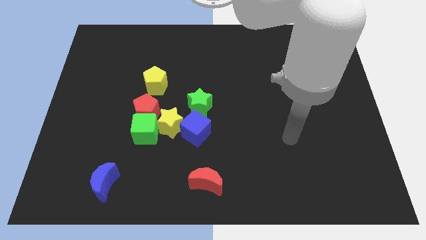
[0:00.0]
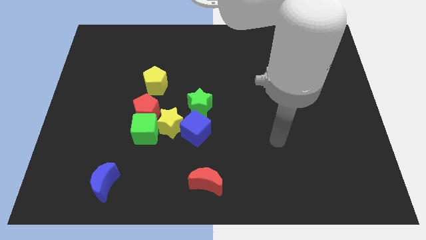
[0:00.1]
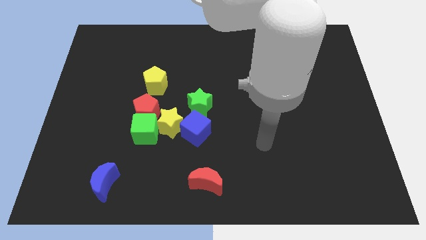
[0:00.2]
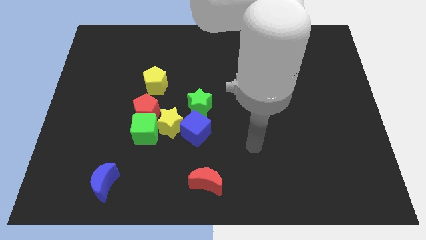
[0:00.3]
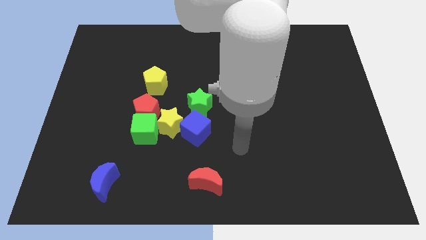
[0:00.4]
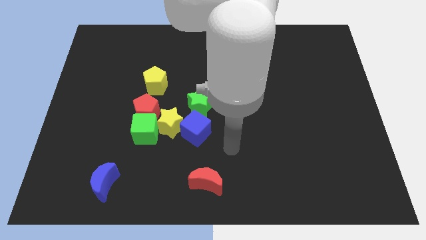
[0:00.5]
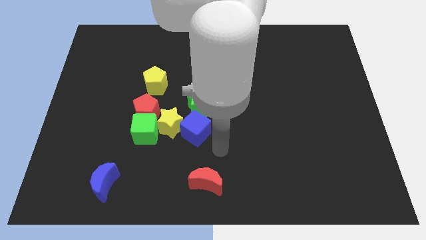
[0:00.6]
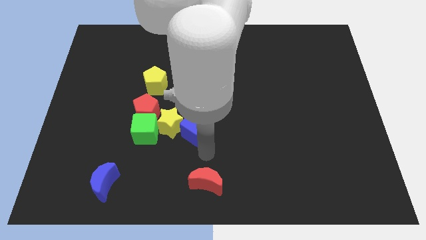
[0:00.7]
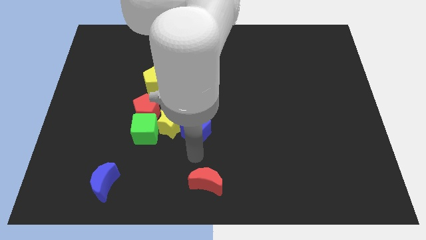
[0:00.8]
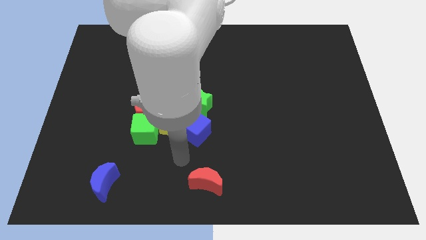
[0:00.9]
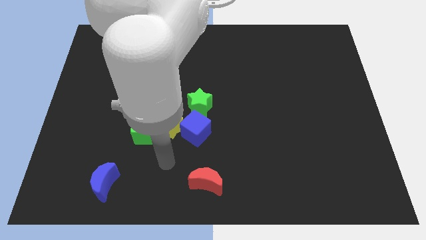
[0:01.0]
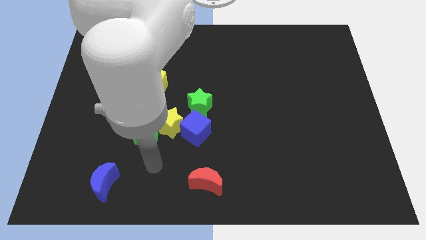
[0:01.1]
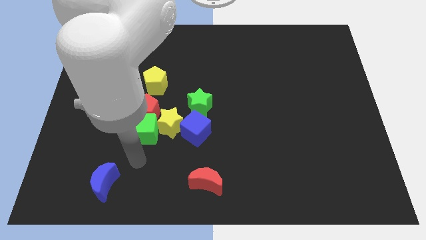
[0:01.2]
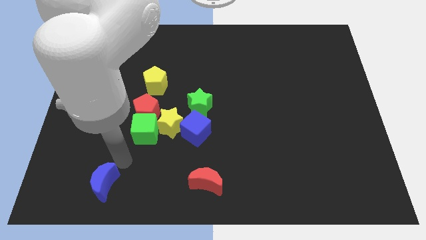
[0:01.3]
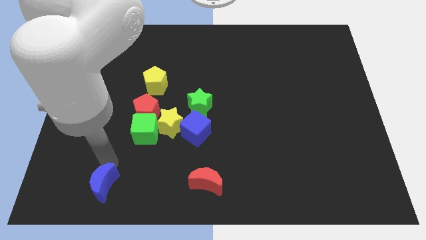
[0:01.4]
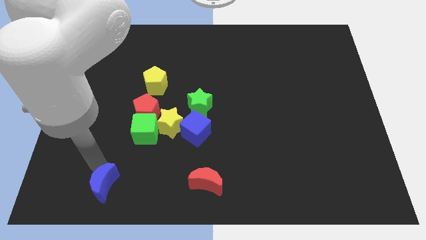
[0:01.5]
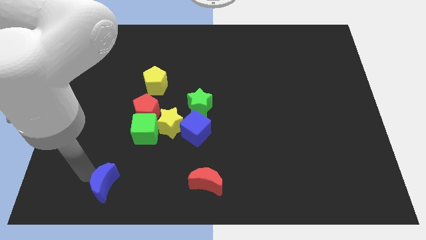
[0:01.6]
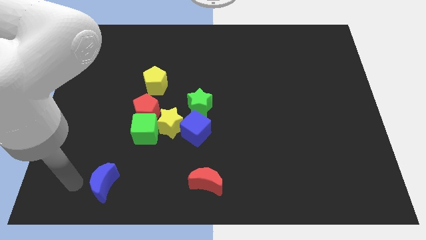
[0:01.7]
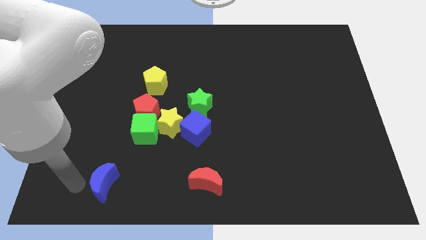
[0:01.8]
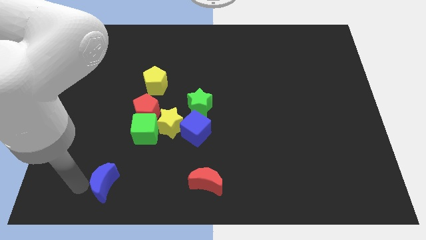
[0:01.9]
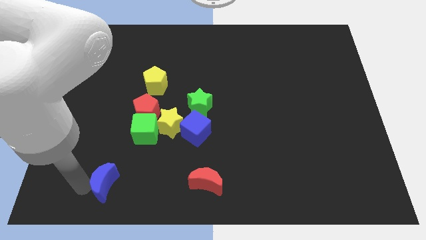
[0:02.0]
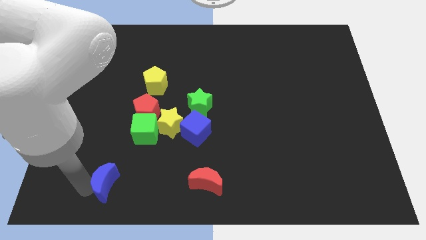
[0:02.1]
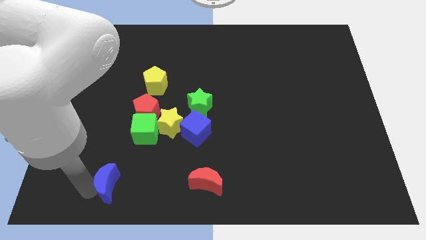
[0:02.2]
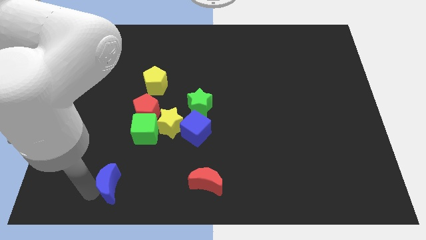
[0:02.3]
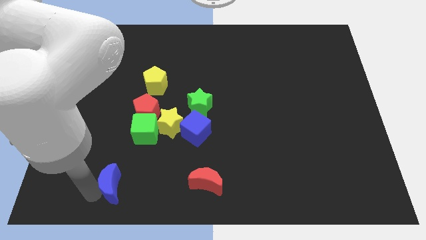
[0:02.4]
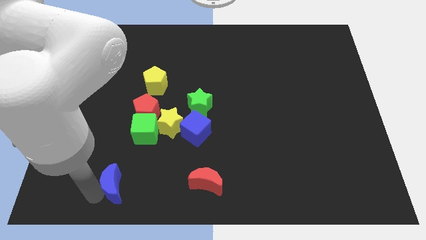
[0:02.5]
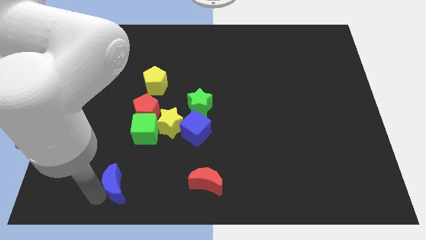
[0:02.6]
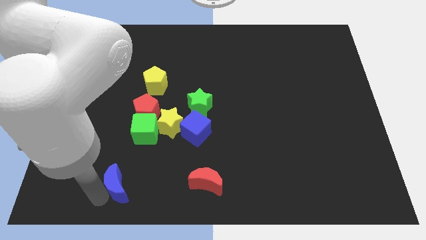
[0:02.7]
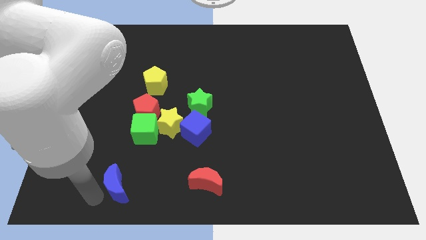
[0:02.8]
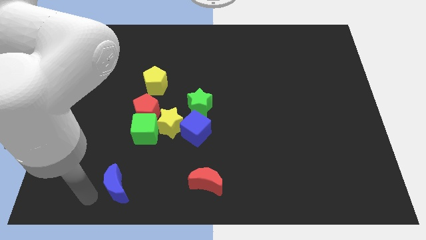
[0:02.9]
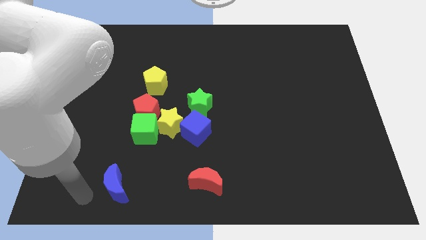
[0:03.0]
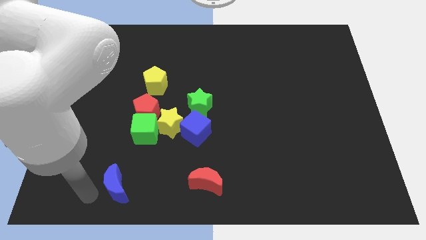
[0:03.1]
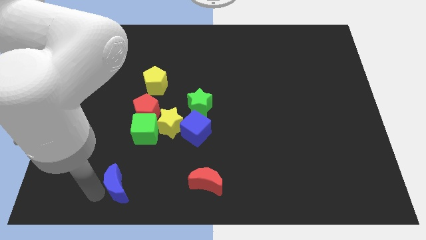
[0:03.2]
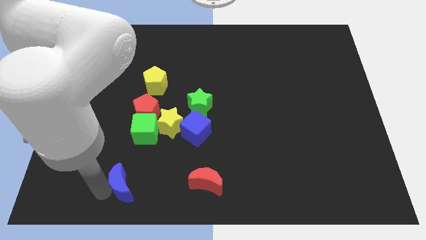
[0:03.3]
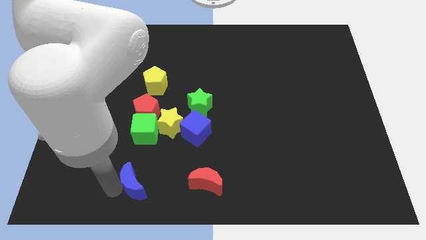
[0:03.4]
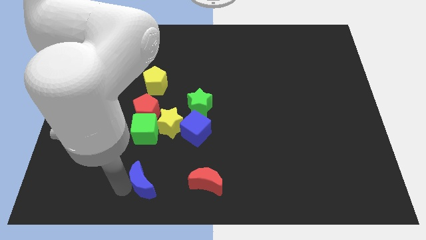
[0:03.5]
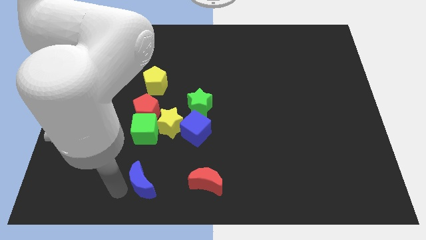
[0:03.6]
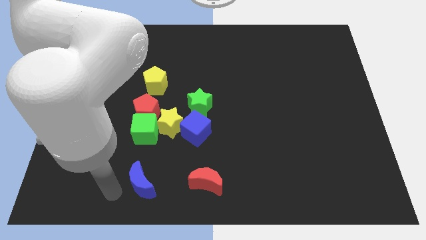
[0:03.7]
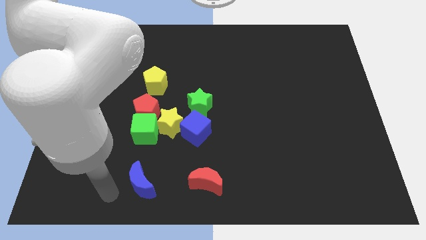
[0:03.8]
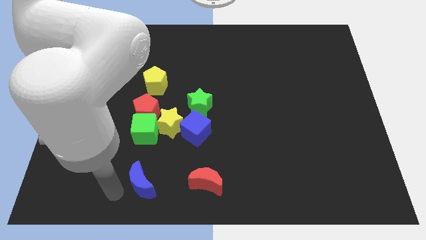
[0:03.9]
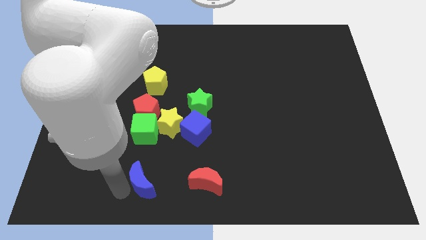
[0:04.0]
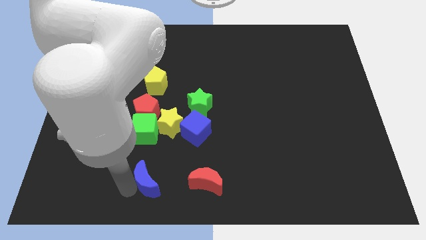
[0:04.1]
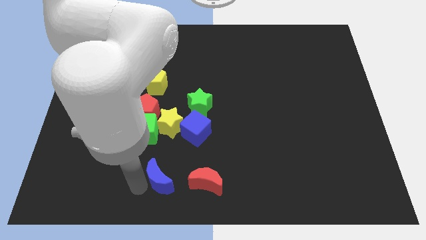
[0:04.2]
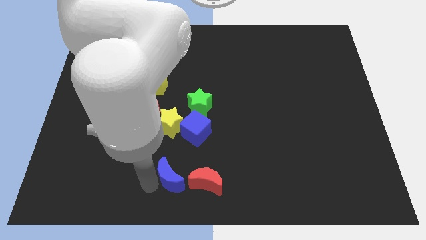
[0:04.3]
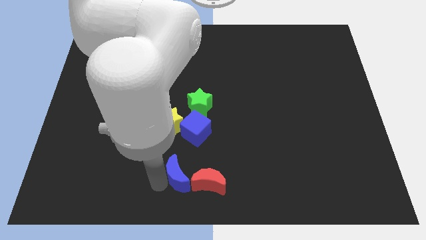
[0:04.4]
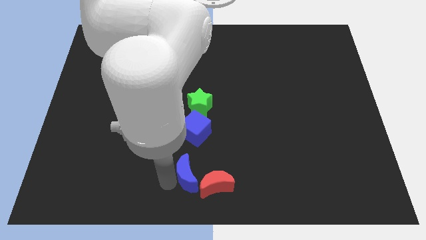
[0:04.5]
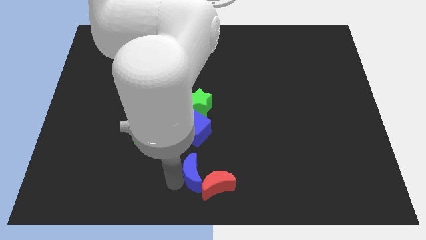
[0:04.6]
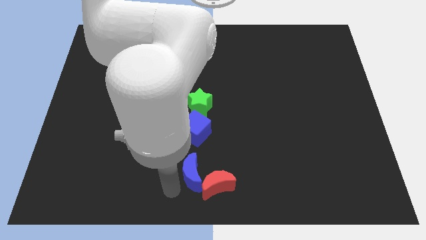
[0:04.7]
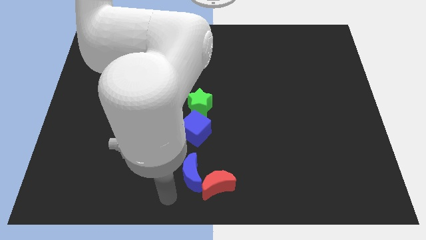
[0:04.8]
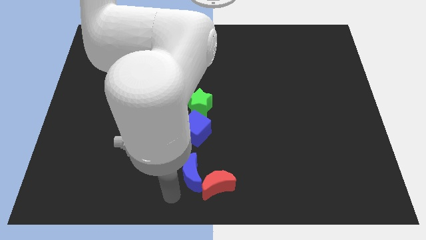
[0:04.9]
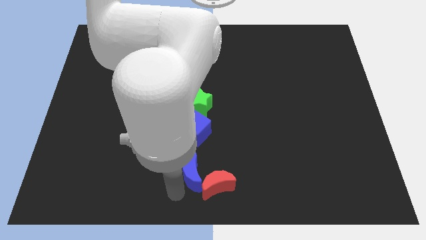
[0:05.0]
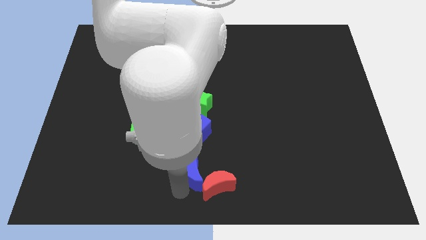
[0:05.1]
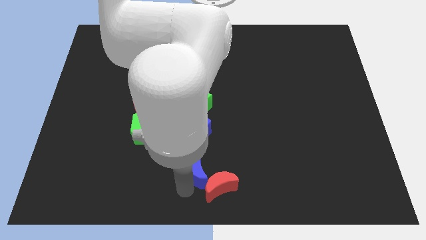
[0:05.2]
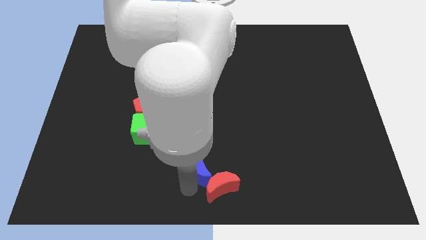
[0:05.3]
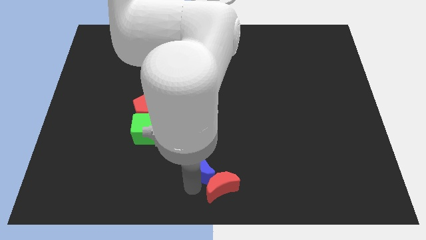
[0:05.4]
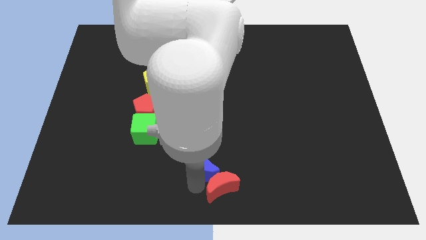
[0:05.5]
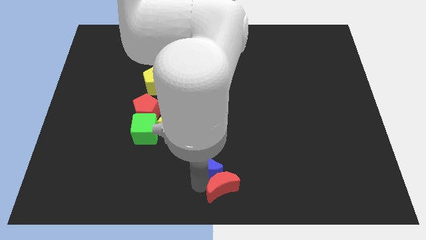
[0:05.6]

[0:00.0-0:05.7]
slide the blue moon to the bottom right side of the blue cube
